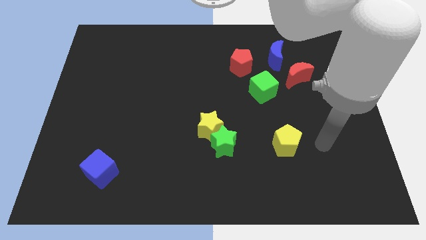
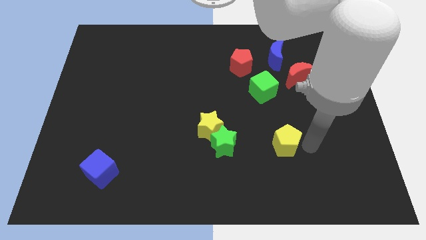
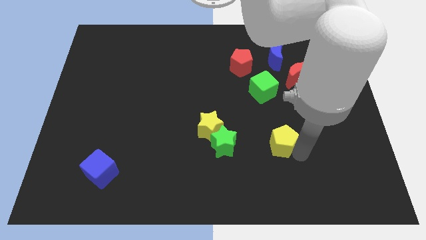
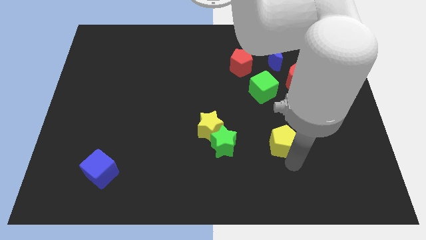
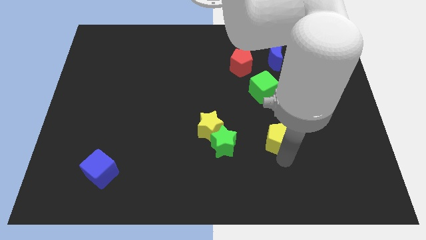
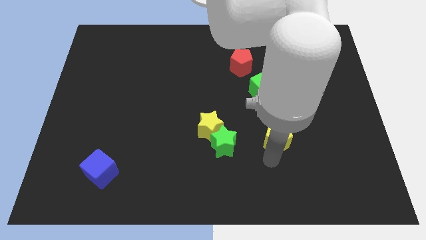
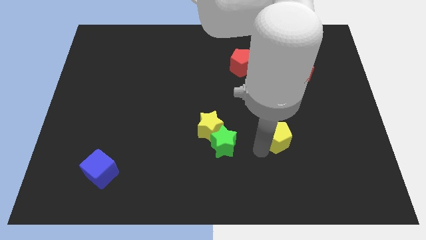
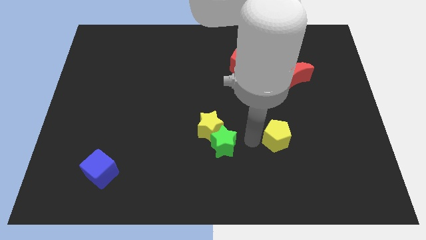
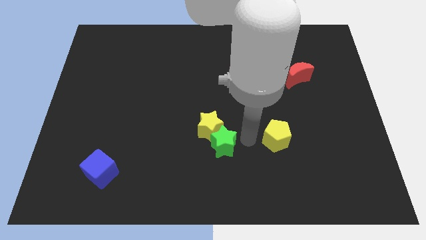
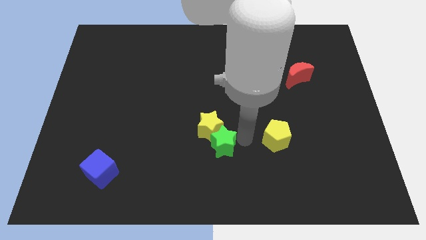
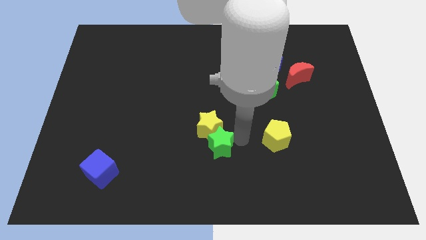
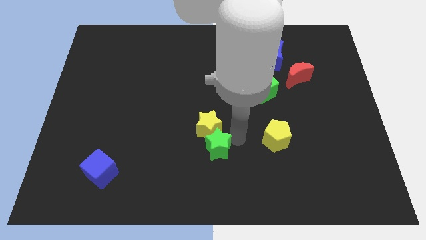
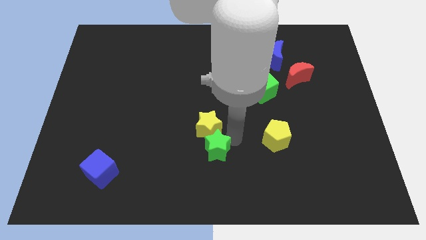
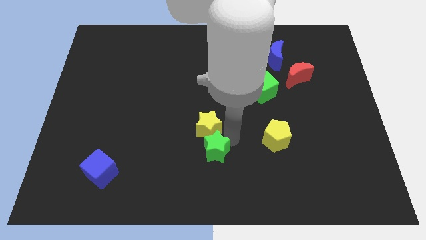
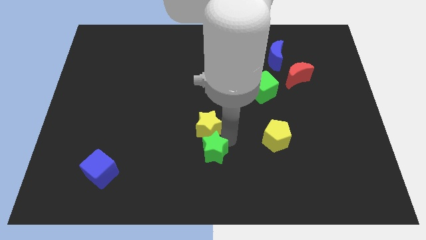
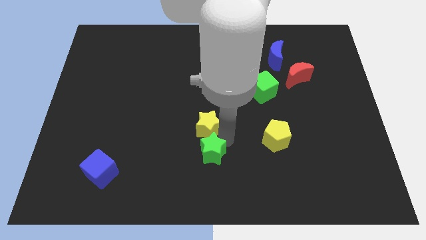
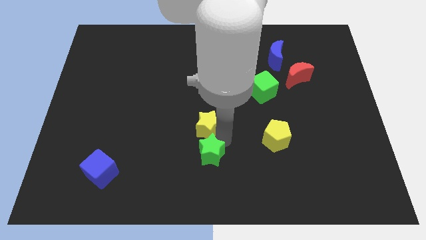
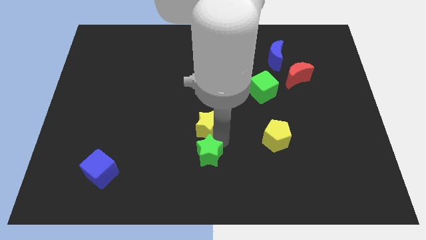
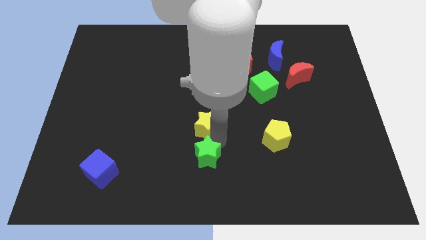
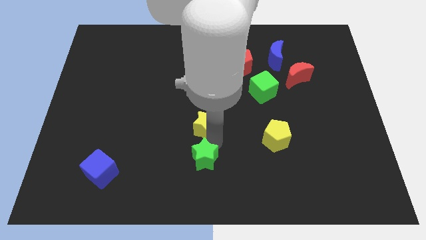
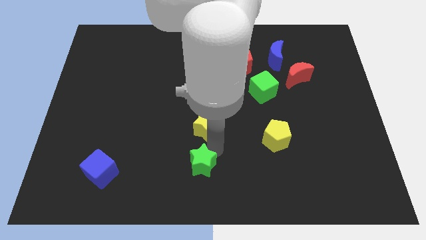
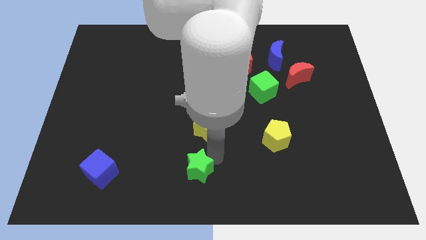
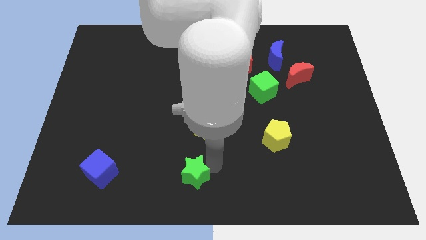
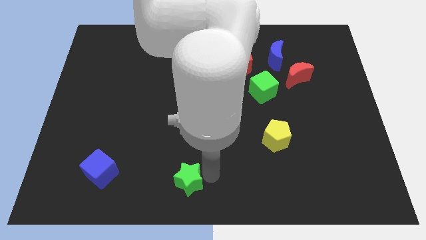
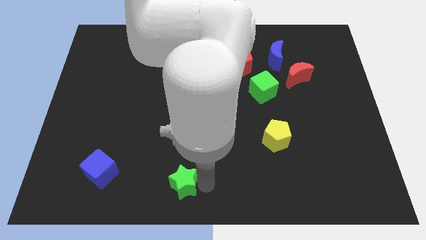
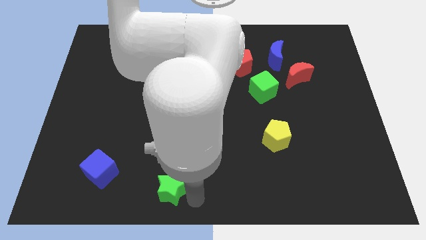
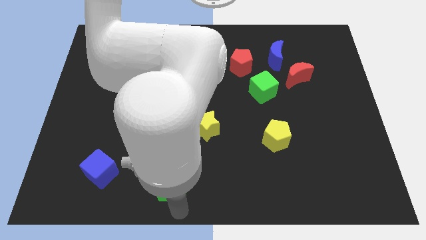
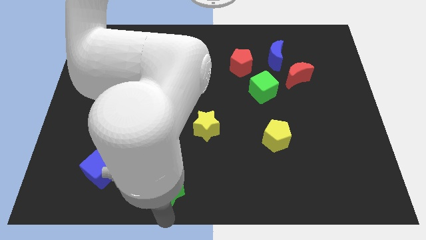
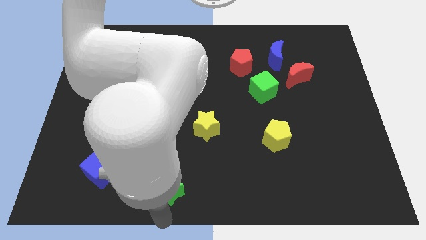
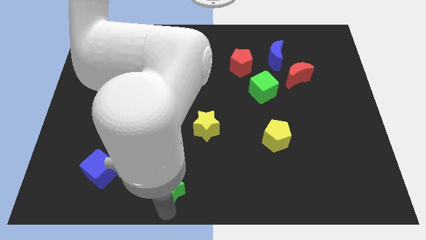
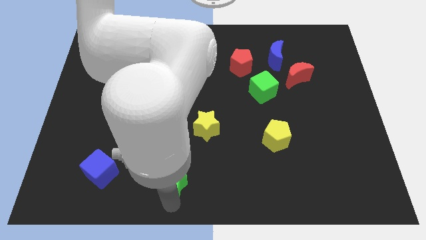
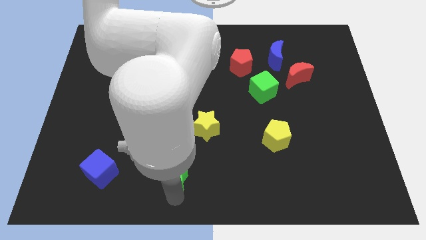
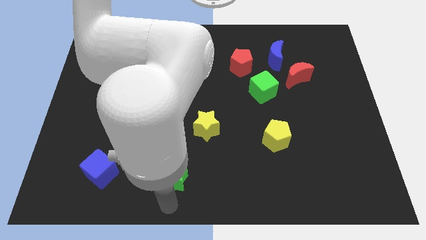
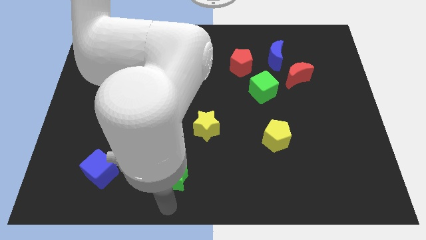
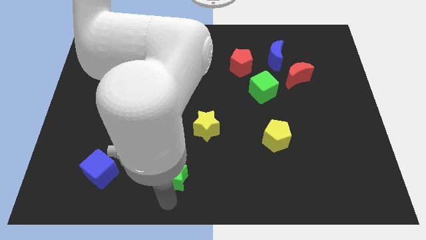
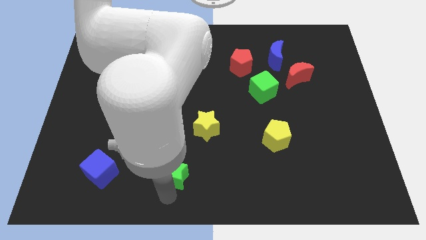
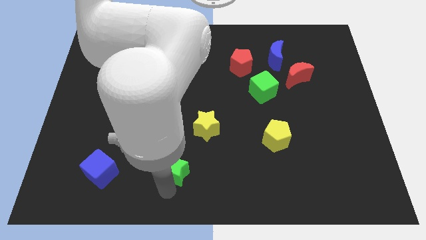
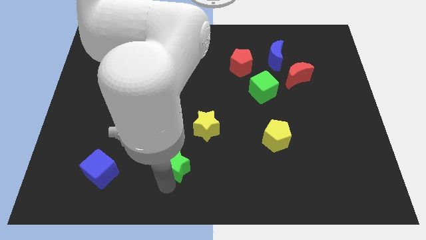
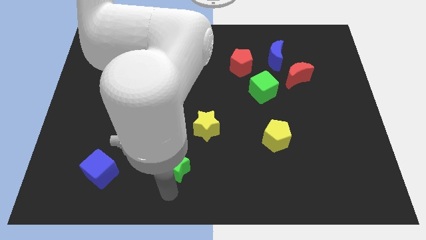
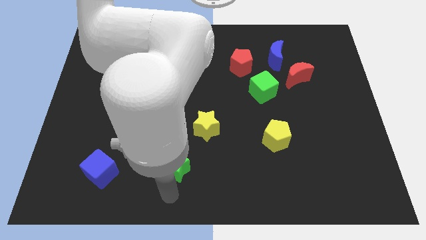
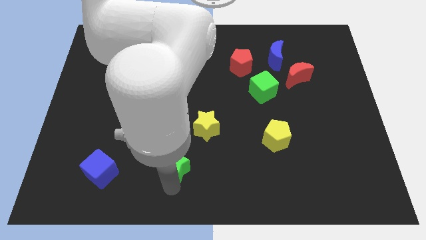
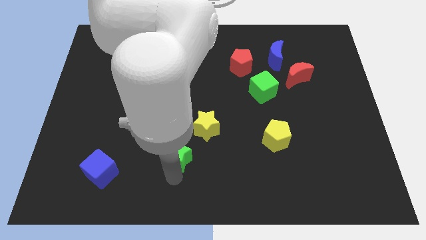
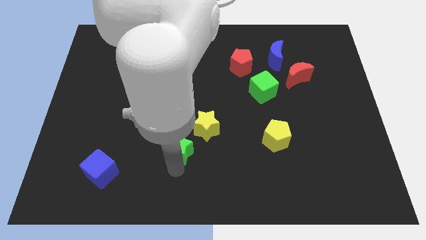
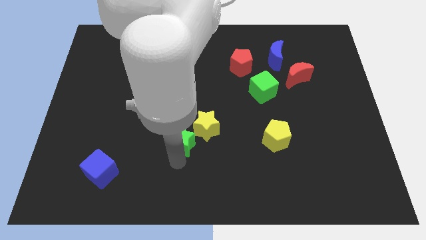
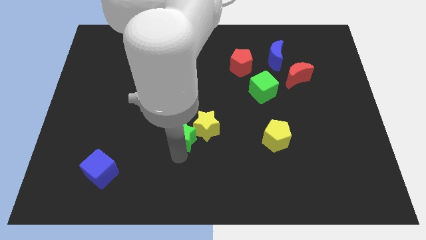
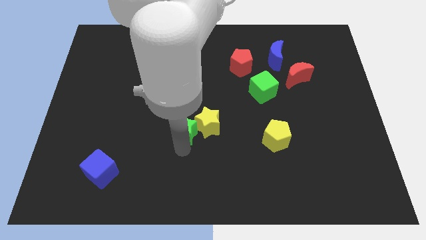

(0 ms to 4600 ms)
move the green star somewhat up and then to the left

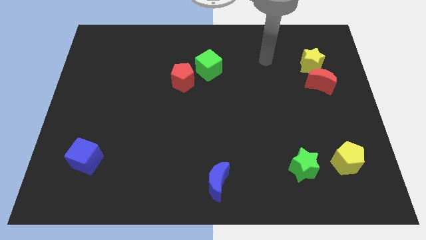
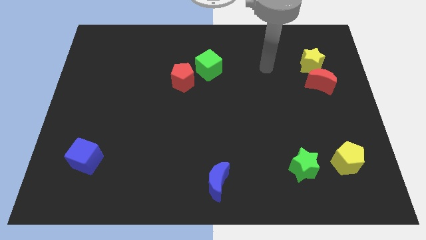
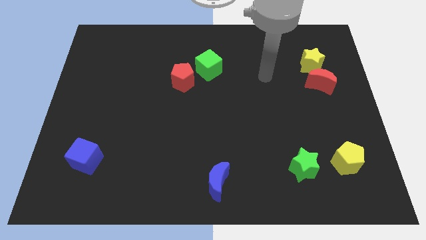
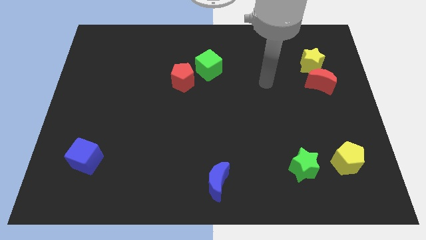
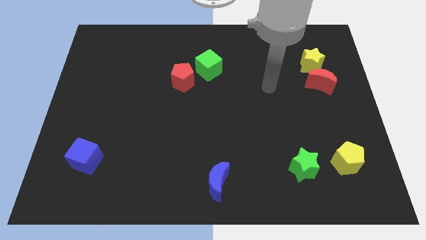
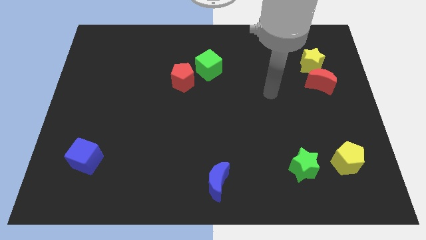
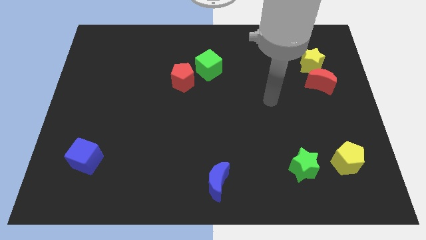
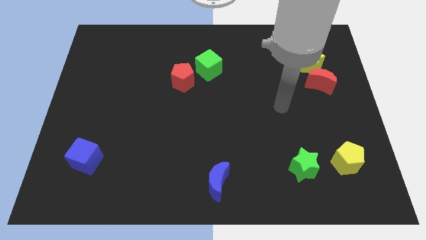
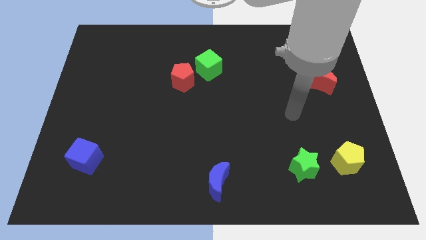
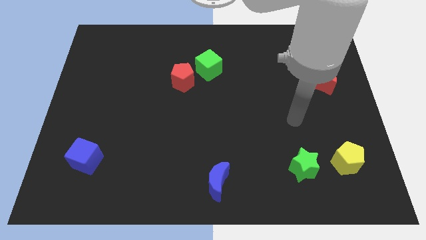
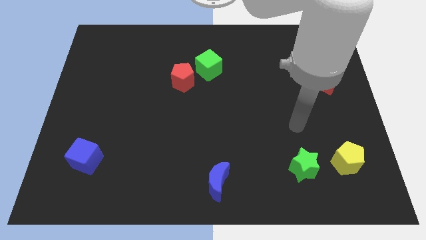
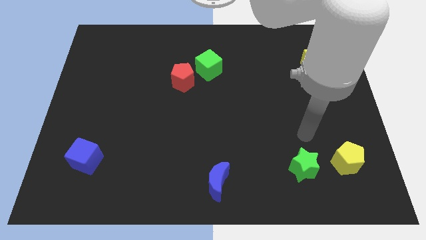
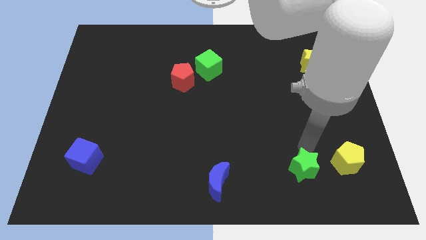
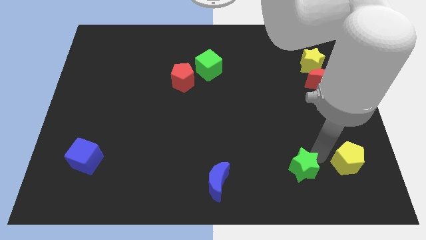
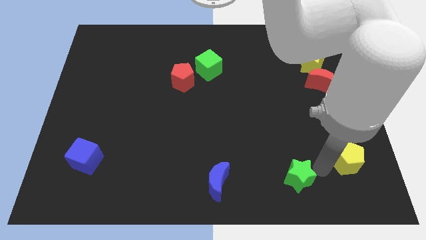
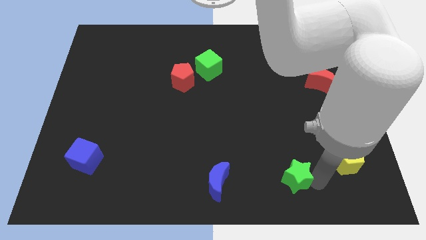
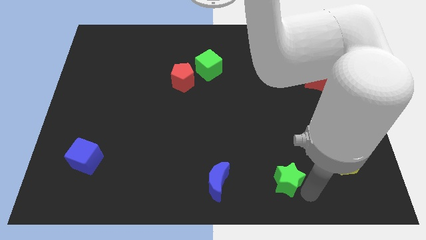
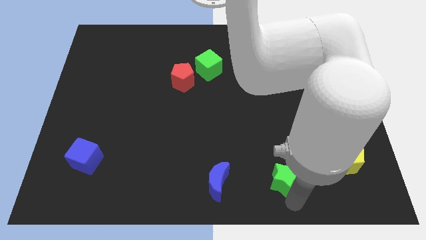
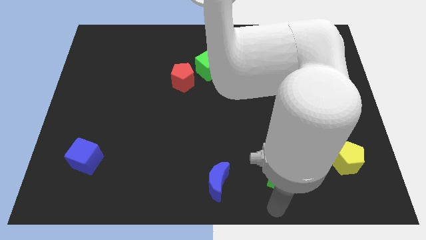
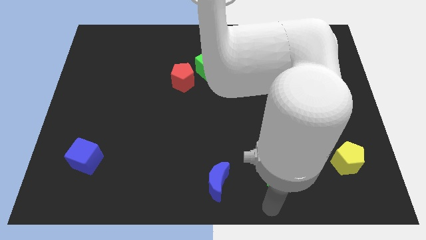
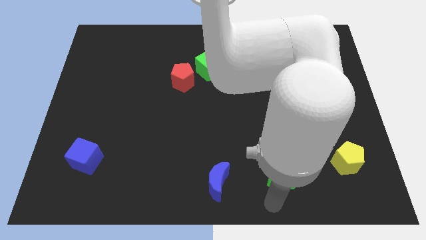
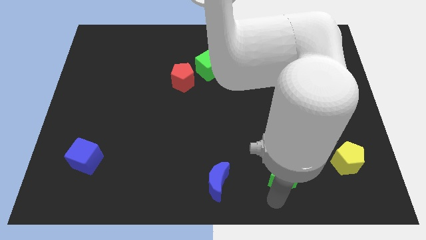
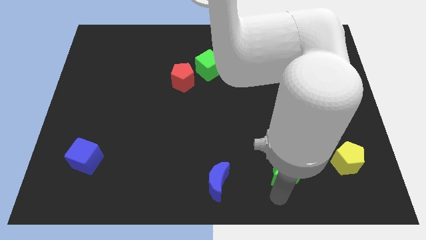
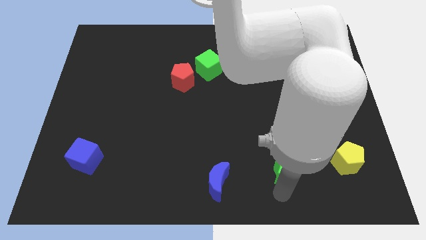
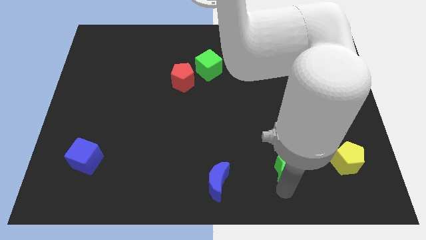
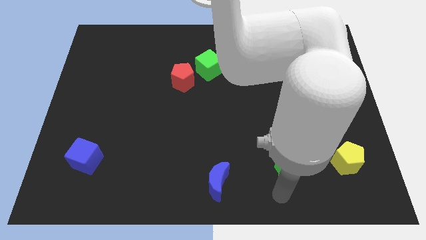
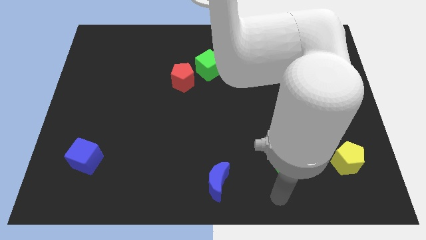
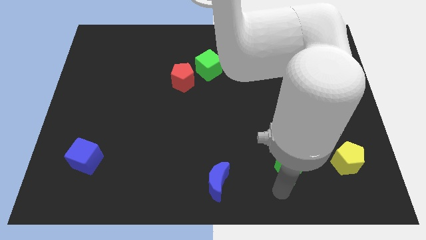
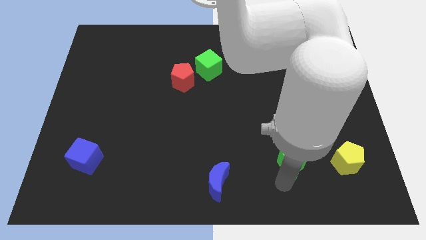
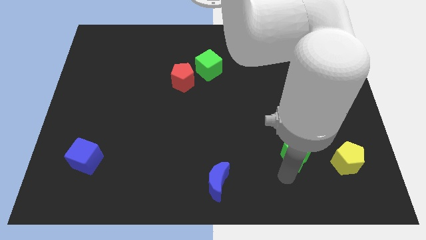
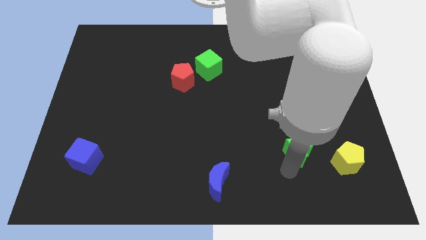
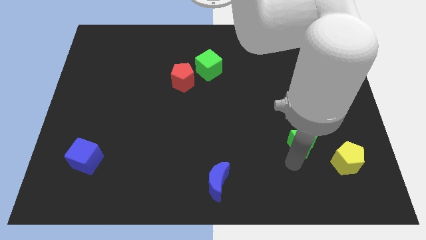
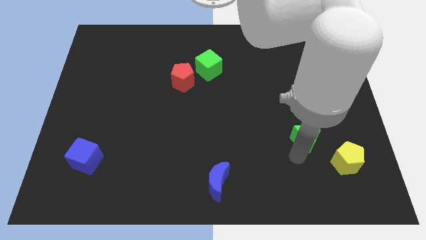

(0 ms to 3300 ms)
slightly slide the green star upwards
